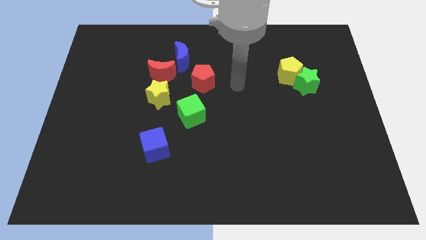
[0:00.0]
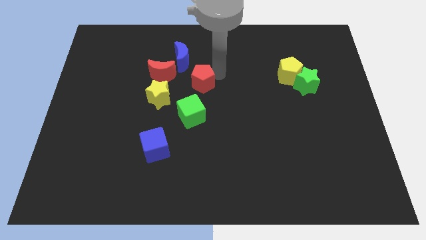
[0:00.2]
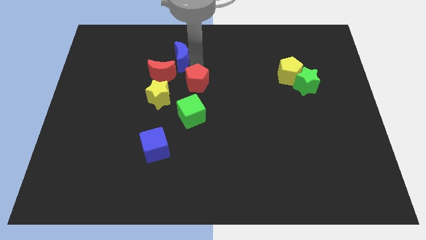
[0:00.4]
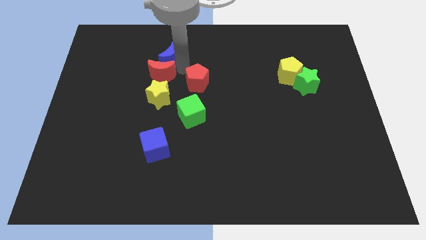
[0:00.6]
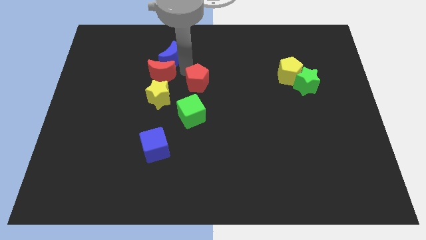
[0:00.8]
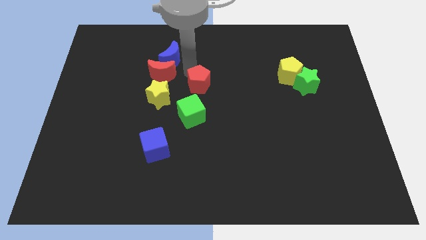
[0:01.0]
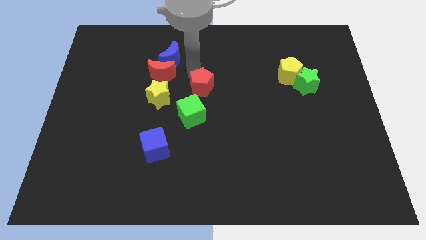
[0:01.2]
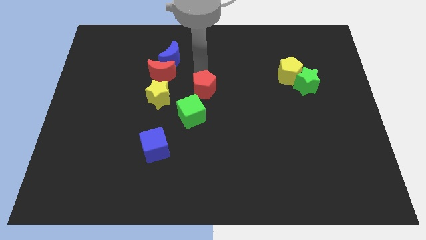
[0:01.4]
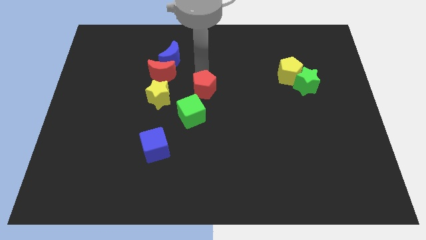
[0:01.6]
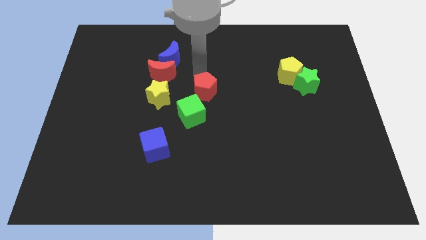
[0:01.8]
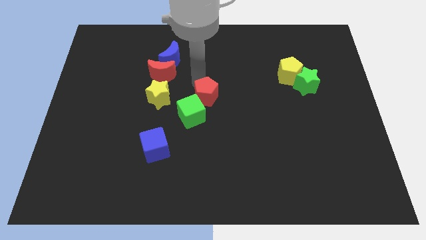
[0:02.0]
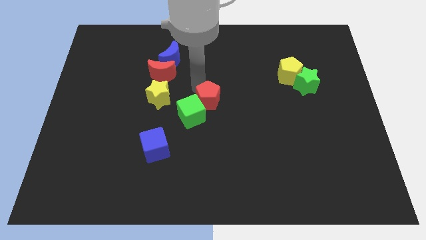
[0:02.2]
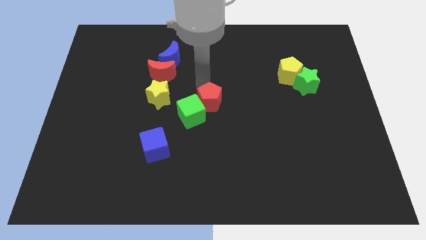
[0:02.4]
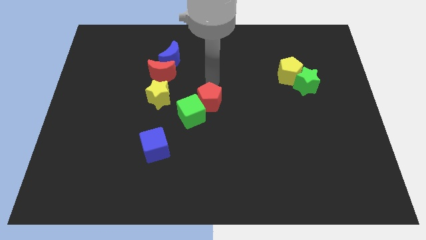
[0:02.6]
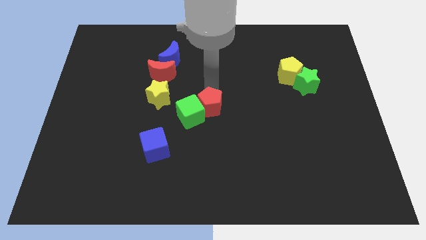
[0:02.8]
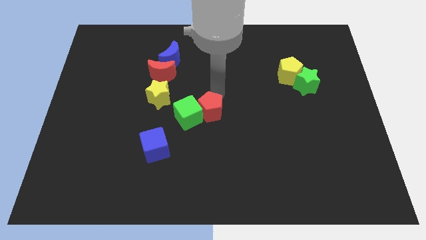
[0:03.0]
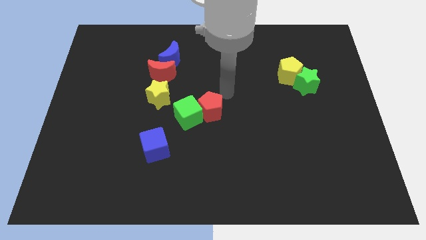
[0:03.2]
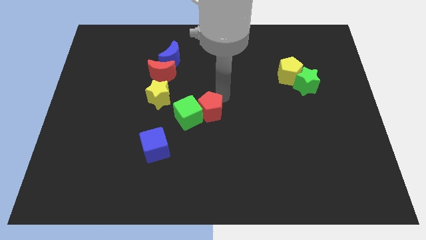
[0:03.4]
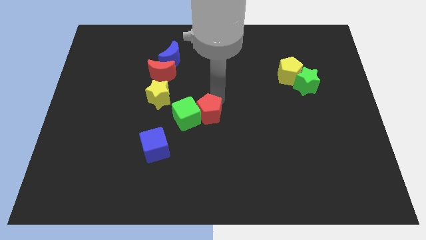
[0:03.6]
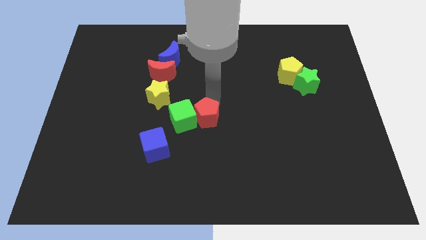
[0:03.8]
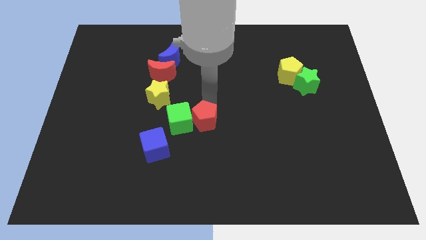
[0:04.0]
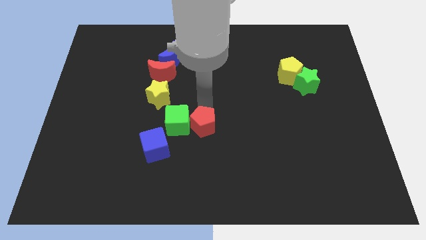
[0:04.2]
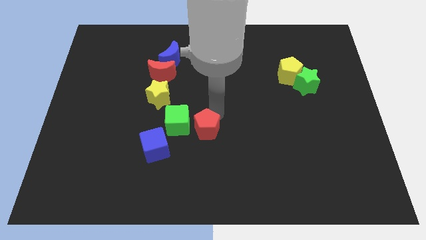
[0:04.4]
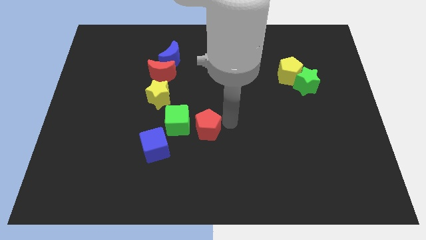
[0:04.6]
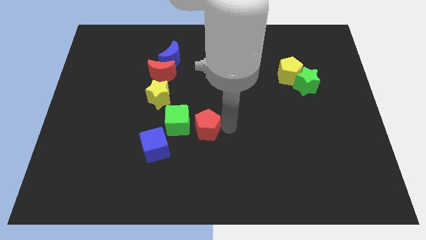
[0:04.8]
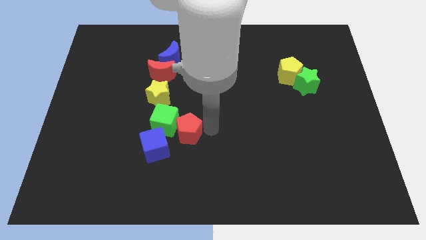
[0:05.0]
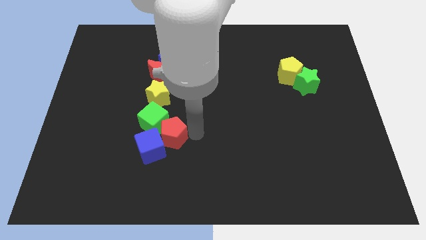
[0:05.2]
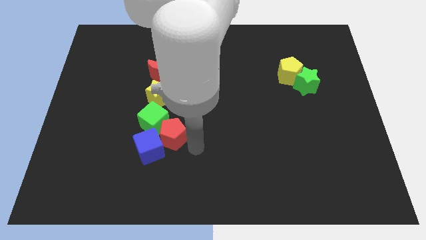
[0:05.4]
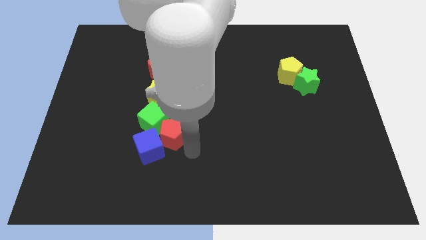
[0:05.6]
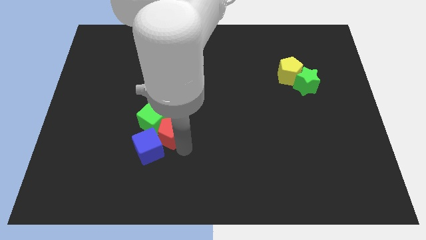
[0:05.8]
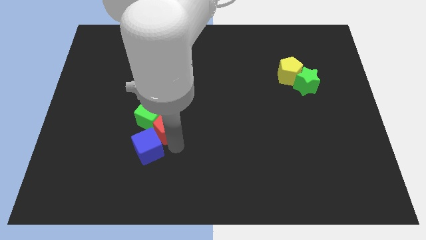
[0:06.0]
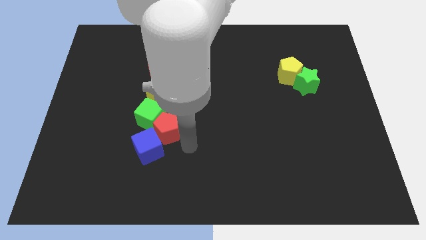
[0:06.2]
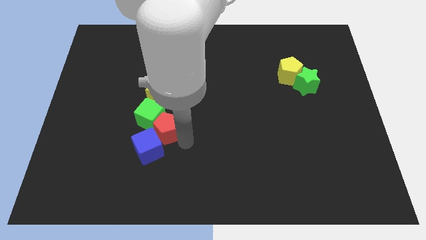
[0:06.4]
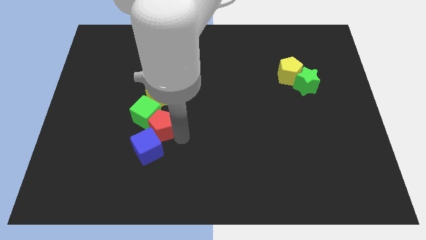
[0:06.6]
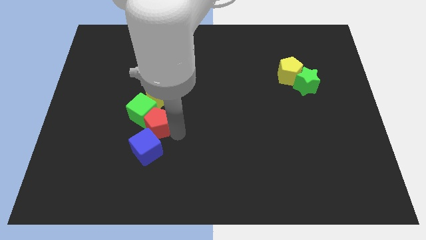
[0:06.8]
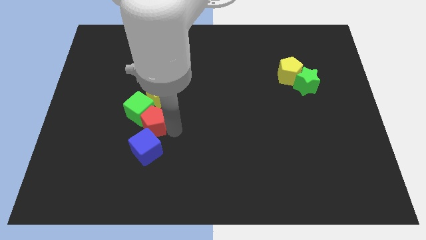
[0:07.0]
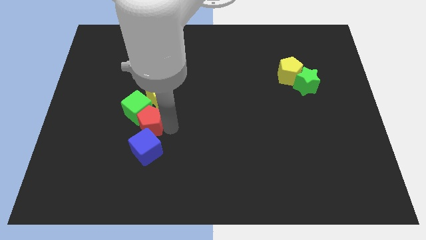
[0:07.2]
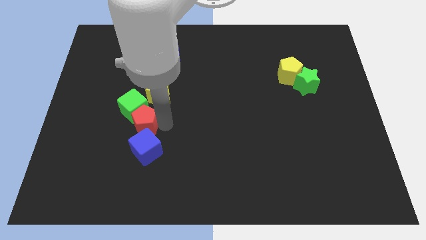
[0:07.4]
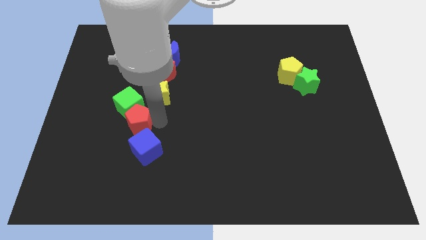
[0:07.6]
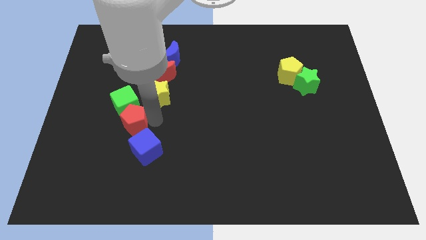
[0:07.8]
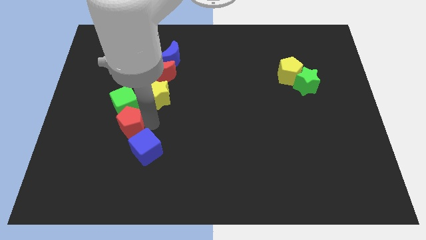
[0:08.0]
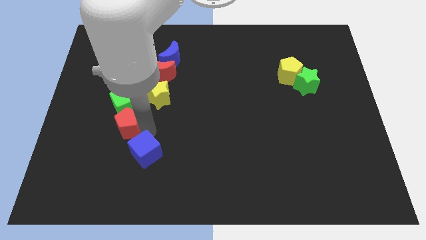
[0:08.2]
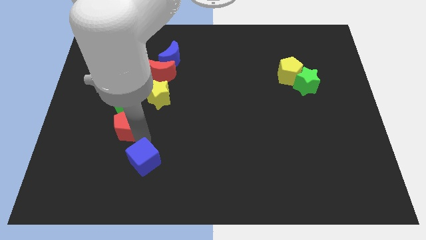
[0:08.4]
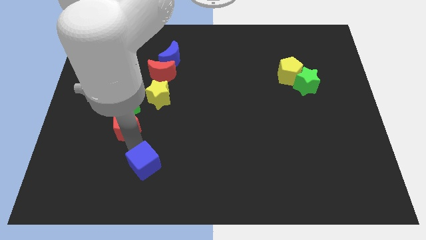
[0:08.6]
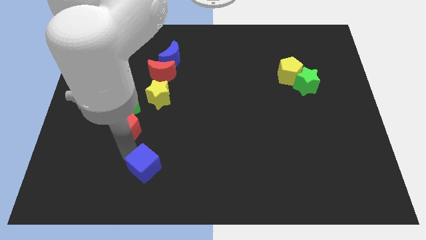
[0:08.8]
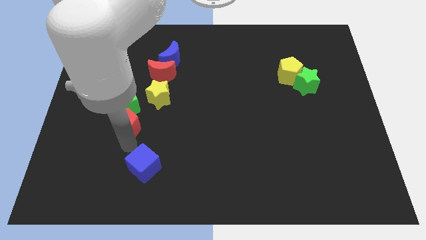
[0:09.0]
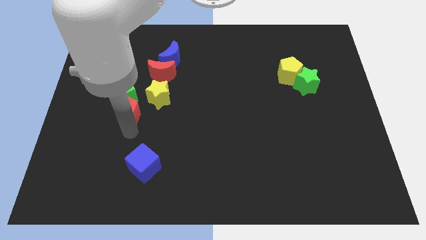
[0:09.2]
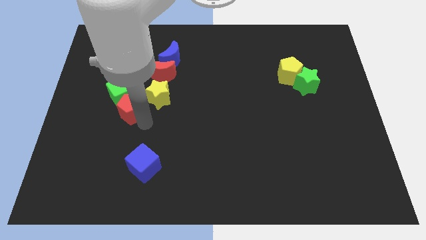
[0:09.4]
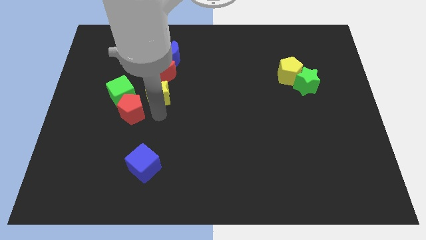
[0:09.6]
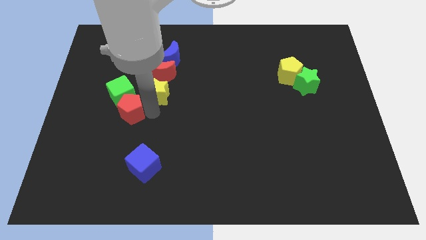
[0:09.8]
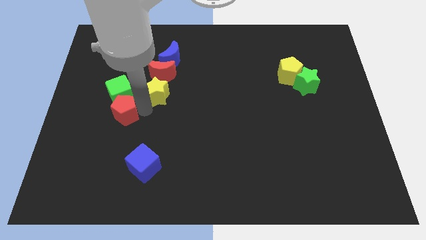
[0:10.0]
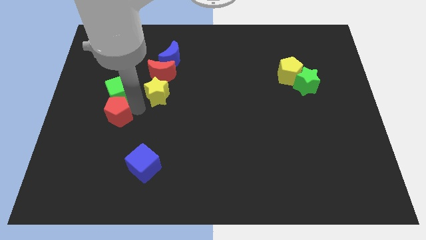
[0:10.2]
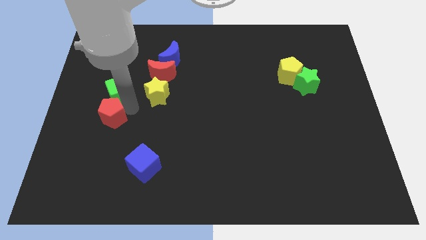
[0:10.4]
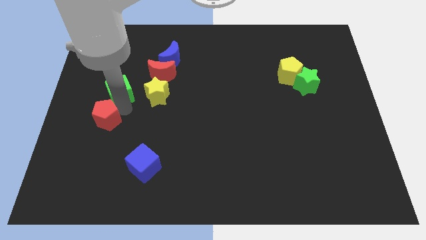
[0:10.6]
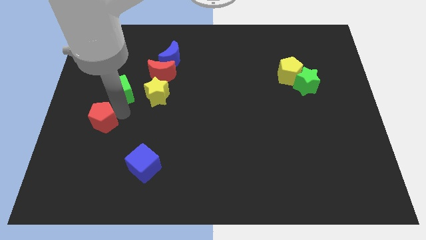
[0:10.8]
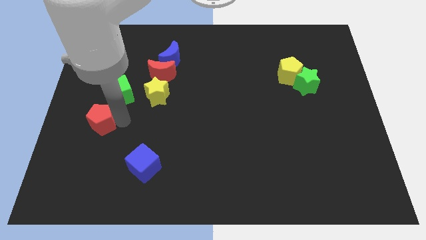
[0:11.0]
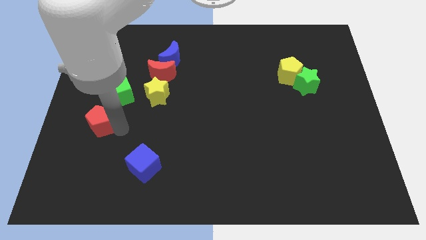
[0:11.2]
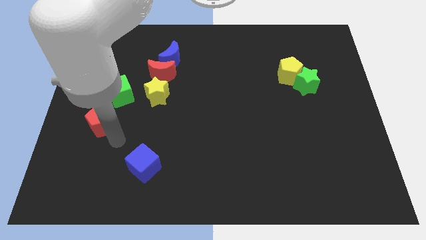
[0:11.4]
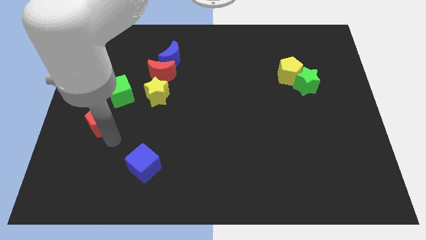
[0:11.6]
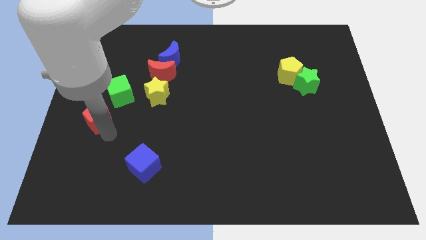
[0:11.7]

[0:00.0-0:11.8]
move the red pentagon to the left side

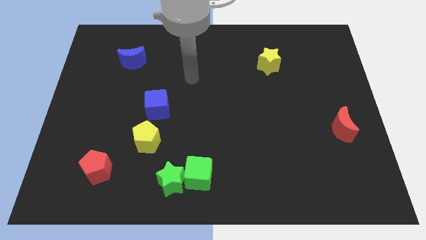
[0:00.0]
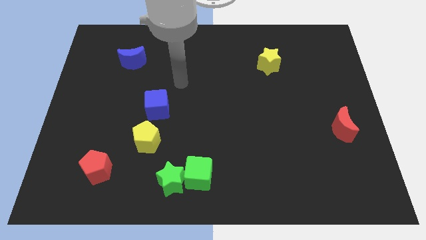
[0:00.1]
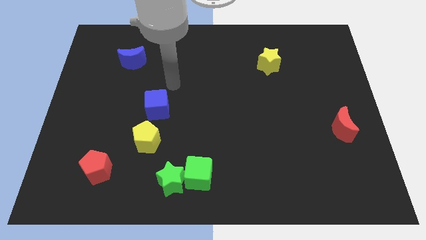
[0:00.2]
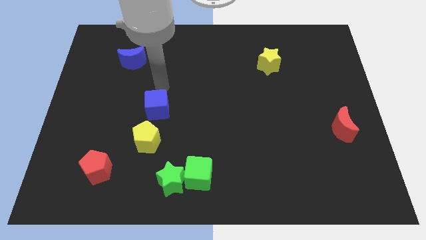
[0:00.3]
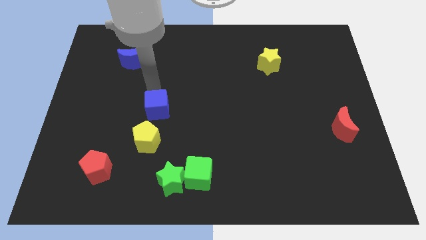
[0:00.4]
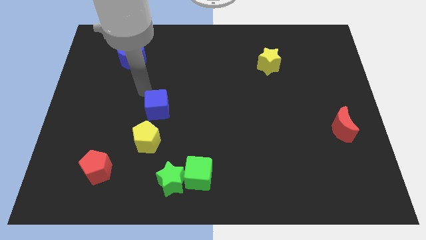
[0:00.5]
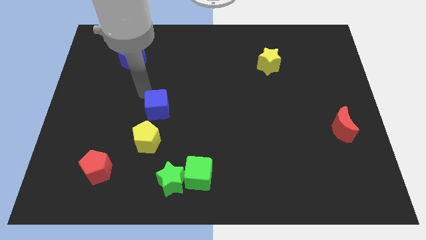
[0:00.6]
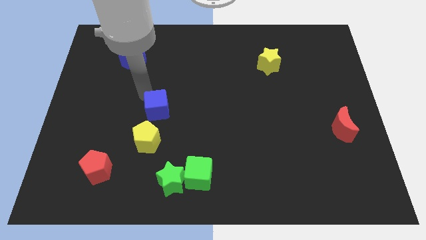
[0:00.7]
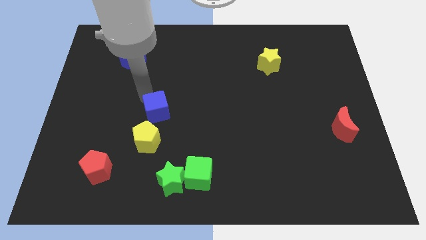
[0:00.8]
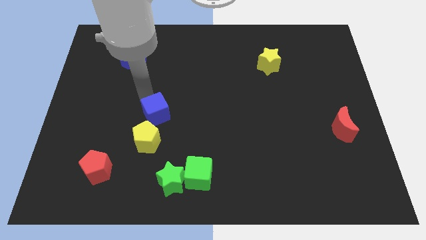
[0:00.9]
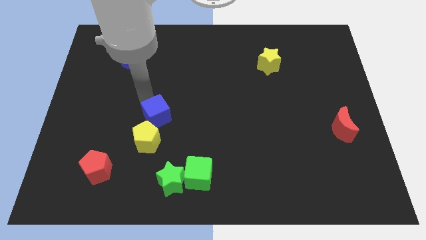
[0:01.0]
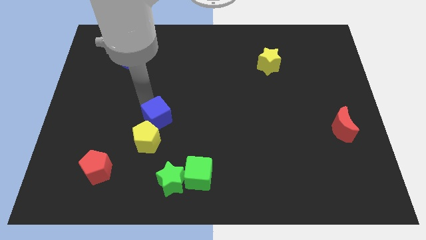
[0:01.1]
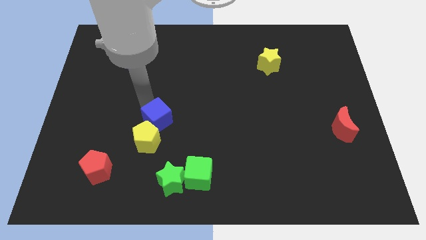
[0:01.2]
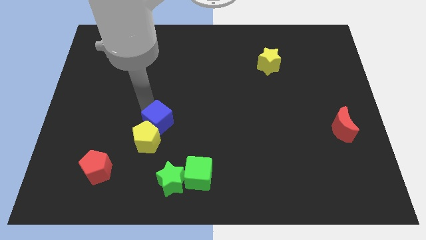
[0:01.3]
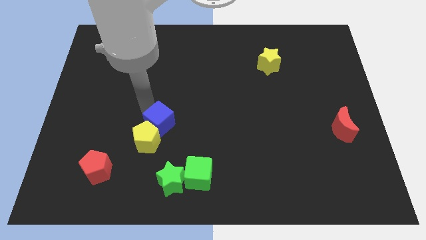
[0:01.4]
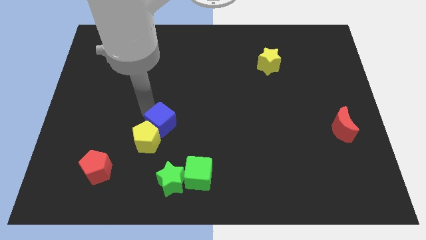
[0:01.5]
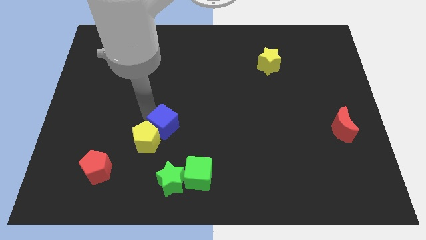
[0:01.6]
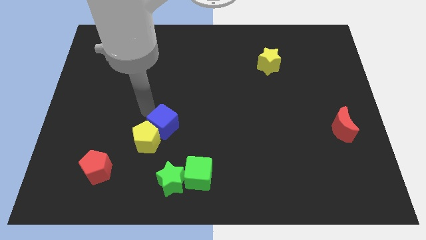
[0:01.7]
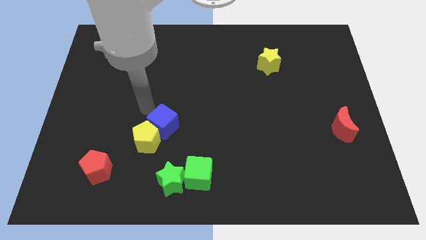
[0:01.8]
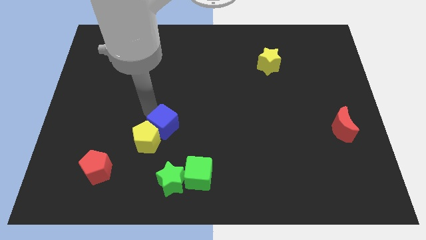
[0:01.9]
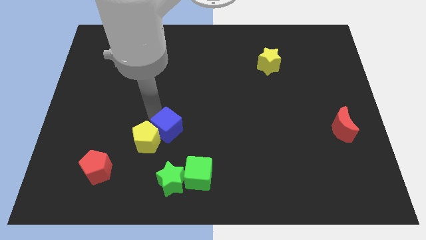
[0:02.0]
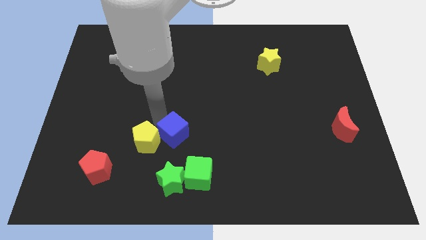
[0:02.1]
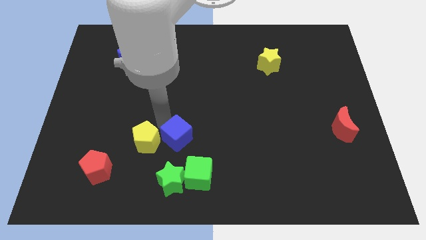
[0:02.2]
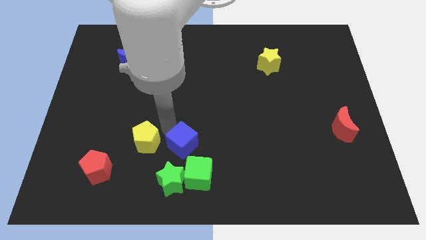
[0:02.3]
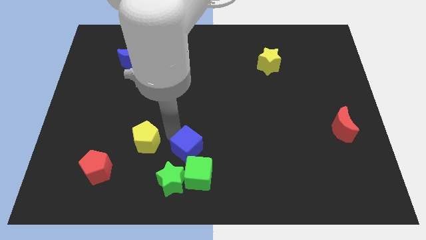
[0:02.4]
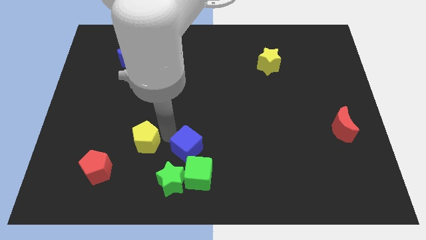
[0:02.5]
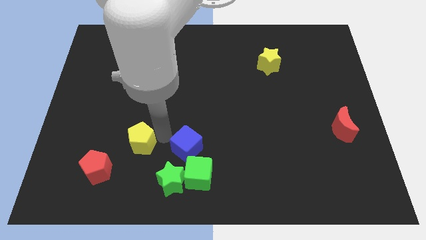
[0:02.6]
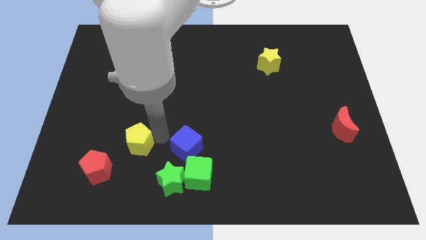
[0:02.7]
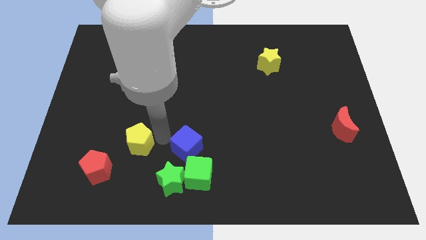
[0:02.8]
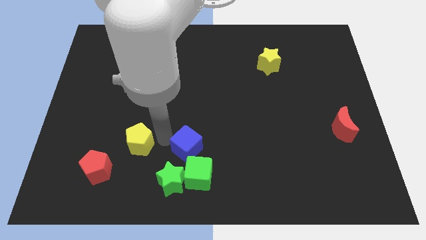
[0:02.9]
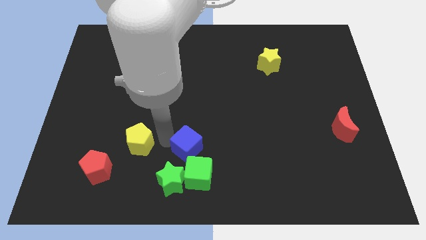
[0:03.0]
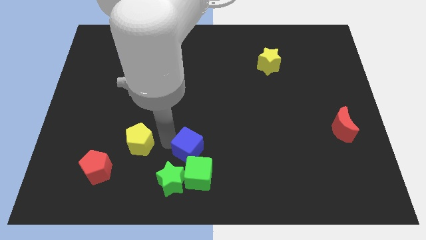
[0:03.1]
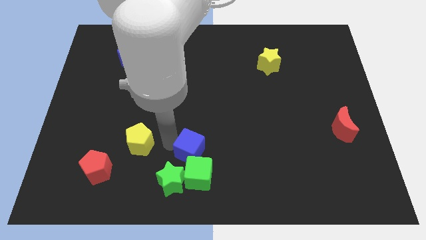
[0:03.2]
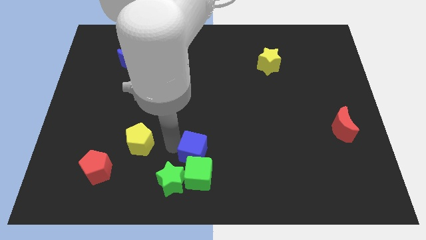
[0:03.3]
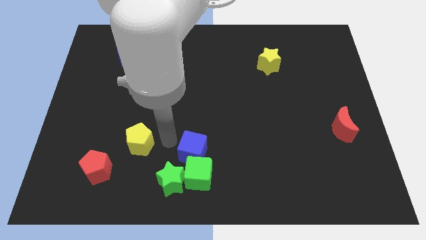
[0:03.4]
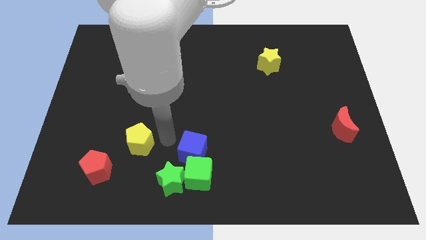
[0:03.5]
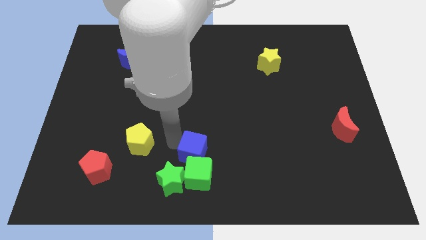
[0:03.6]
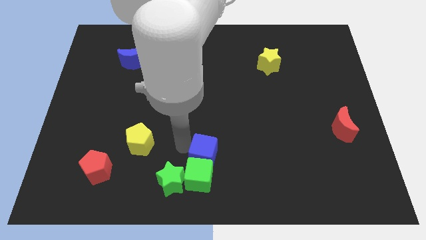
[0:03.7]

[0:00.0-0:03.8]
slide the blue cube to the bottom side
